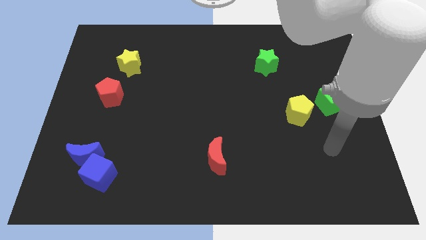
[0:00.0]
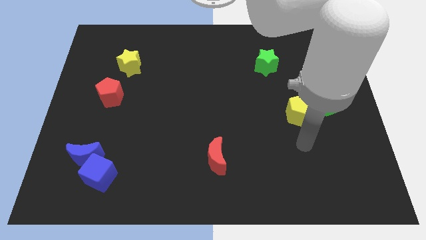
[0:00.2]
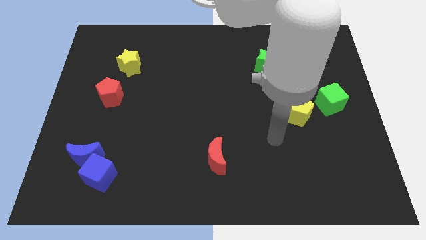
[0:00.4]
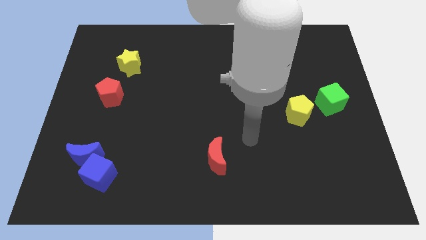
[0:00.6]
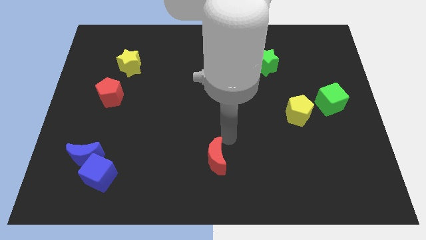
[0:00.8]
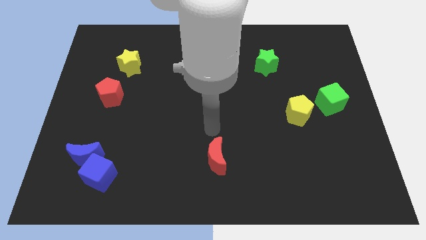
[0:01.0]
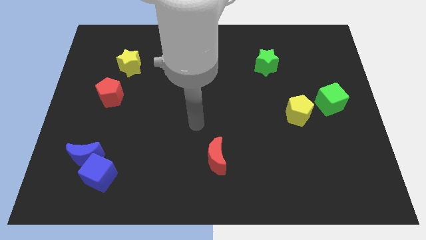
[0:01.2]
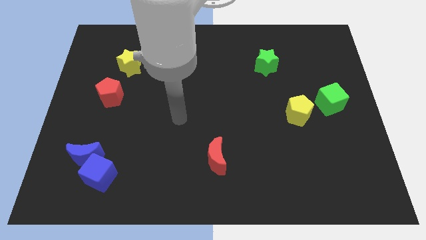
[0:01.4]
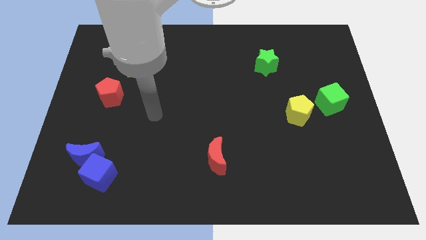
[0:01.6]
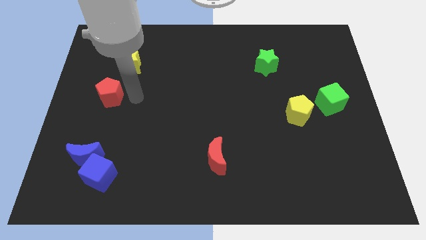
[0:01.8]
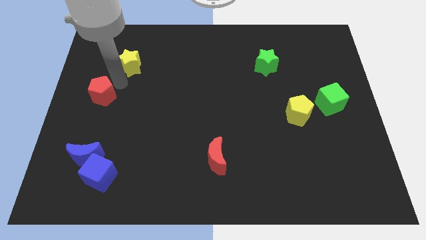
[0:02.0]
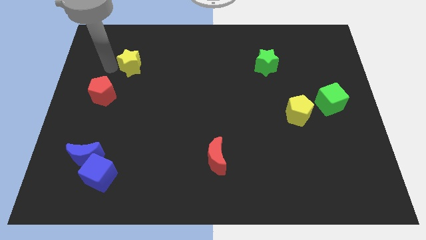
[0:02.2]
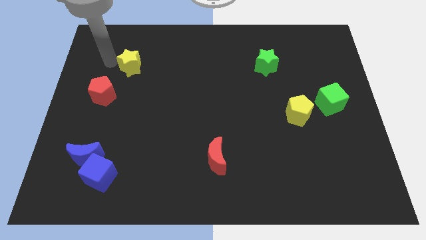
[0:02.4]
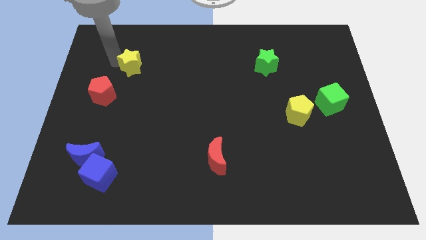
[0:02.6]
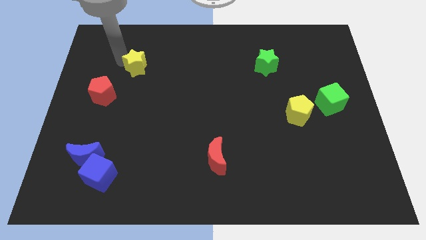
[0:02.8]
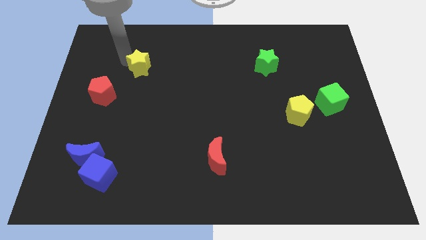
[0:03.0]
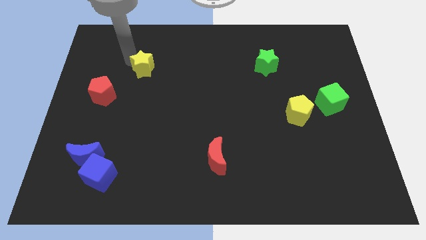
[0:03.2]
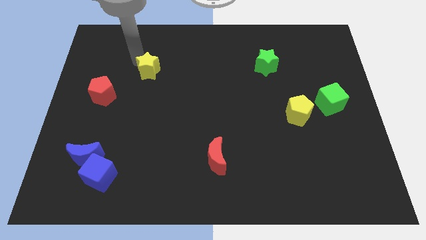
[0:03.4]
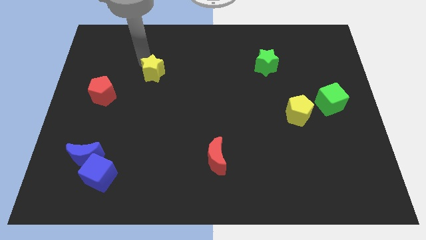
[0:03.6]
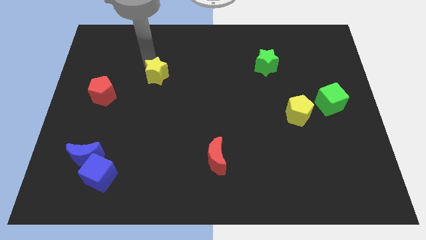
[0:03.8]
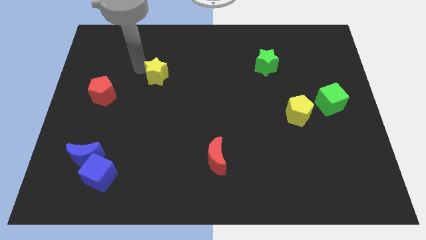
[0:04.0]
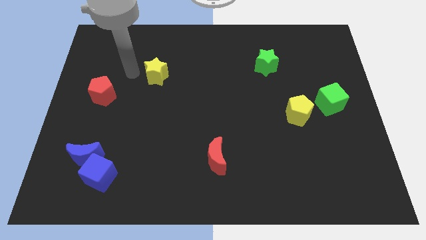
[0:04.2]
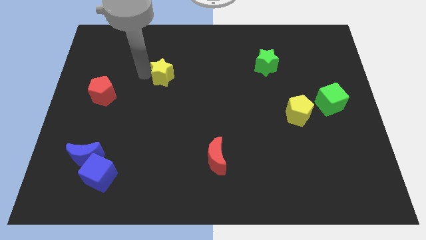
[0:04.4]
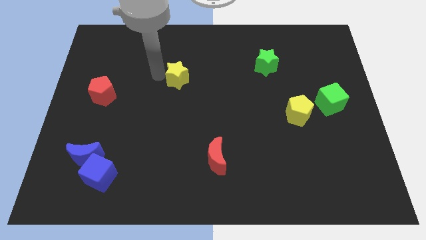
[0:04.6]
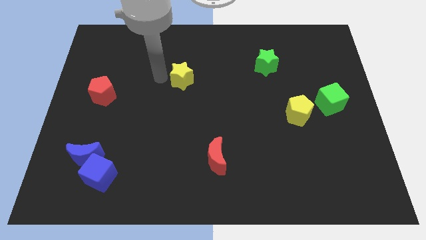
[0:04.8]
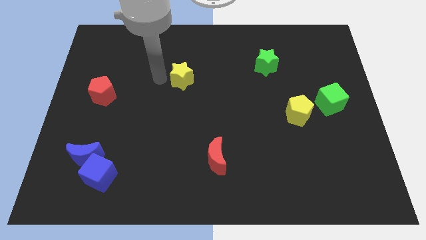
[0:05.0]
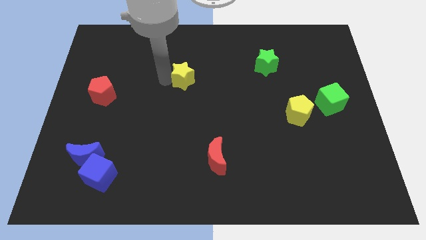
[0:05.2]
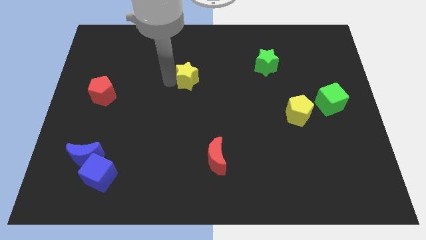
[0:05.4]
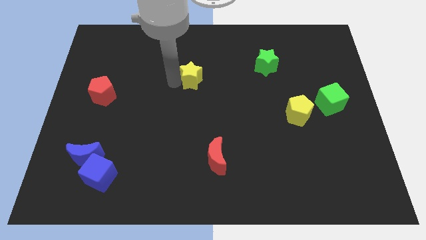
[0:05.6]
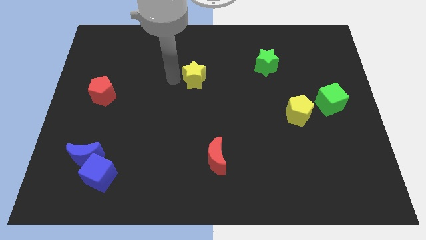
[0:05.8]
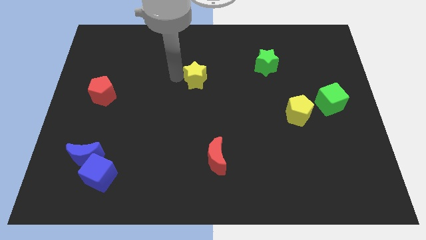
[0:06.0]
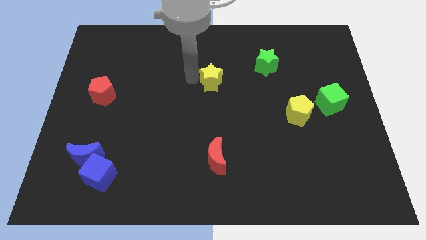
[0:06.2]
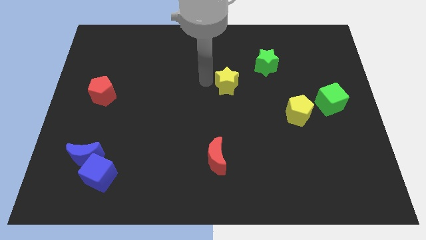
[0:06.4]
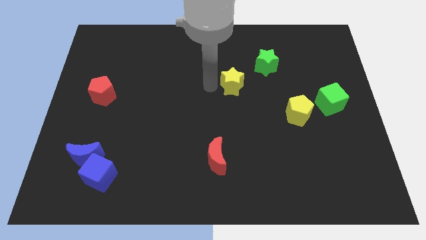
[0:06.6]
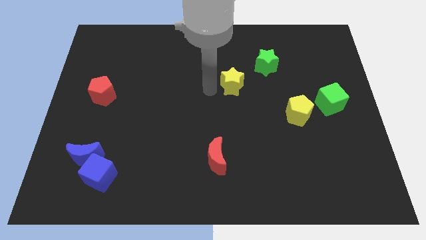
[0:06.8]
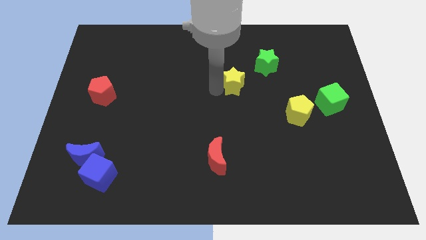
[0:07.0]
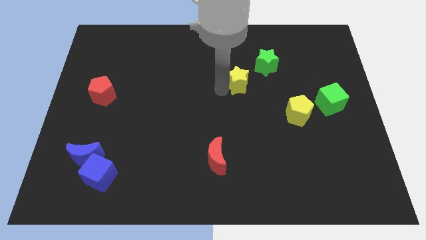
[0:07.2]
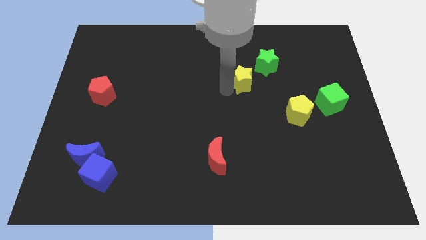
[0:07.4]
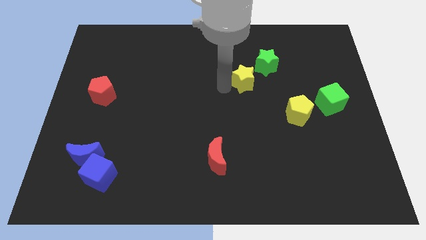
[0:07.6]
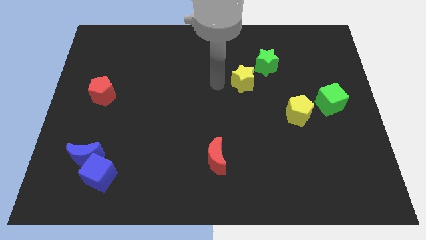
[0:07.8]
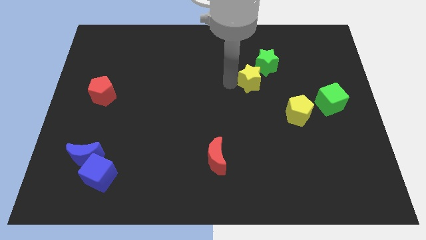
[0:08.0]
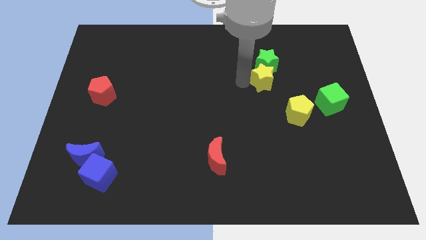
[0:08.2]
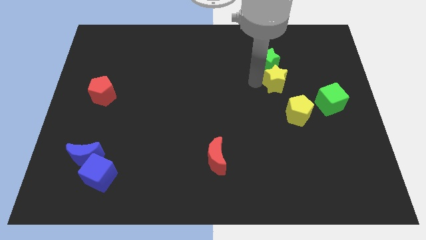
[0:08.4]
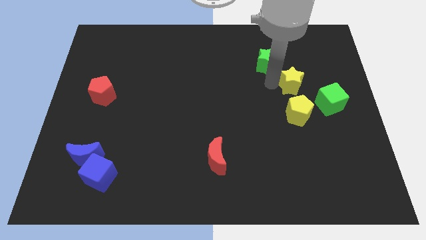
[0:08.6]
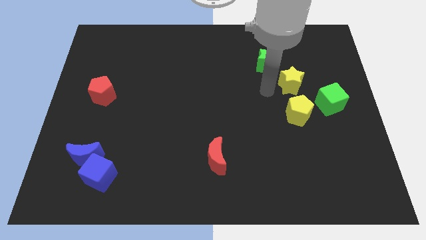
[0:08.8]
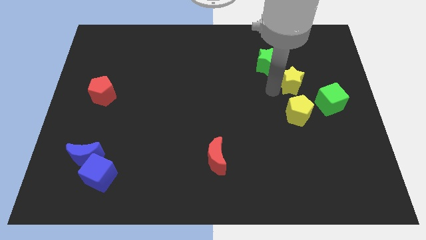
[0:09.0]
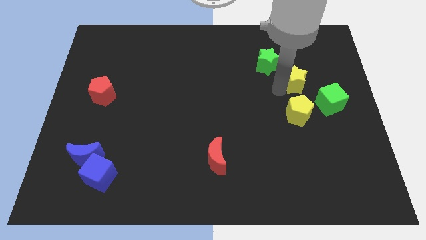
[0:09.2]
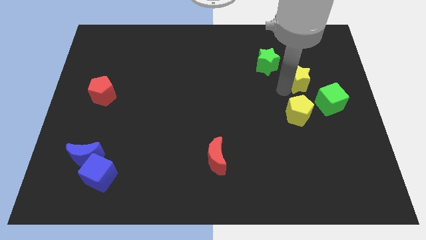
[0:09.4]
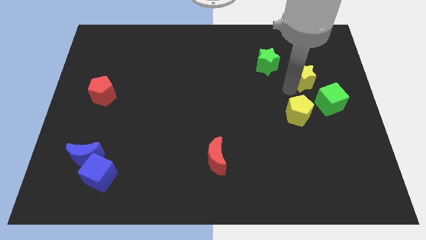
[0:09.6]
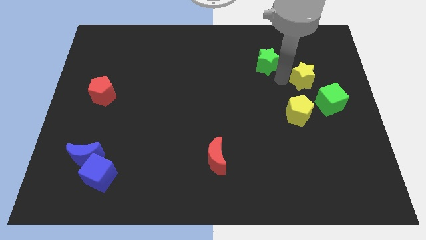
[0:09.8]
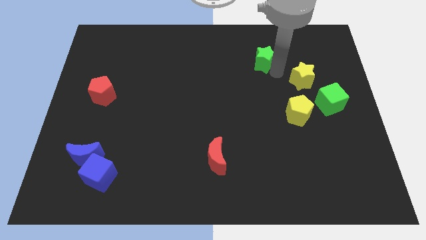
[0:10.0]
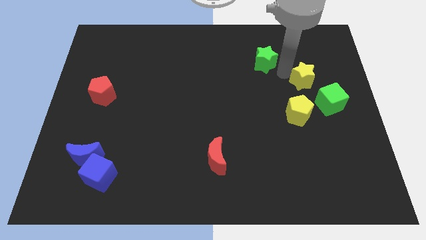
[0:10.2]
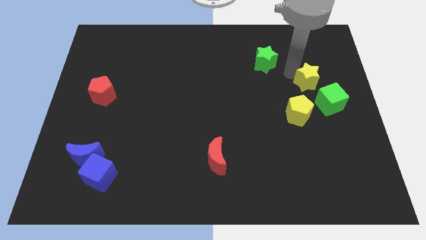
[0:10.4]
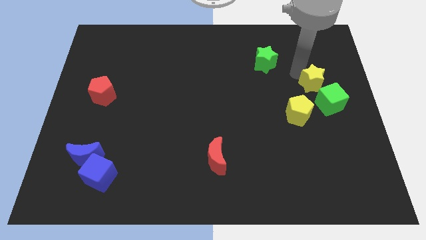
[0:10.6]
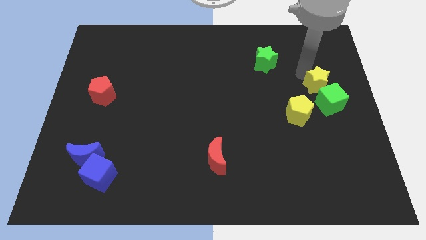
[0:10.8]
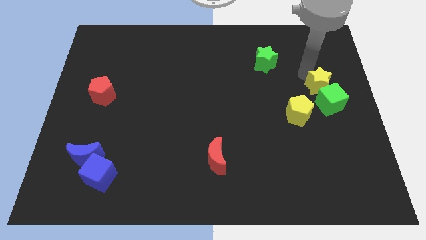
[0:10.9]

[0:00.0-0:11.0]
put the yellow star to the center right
